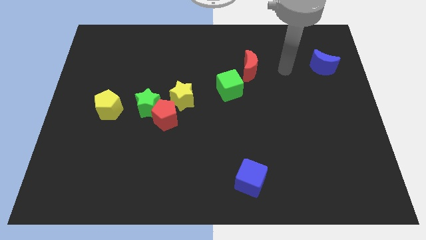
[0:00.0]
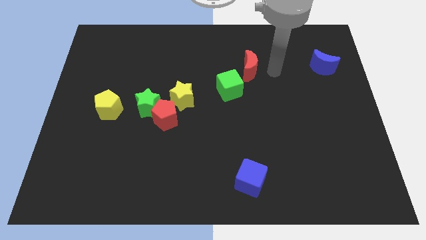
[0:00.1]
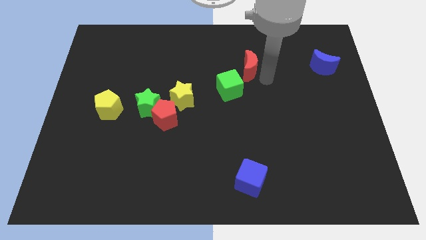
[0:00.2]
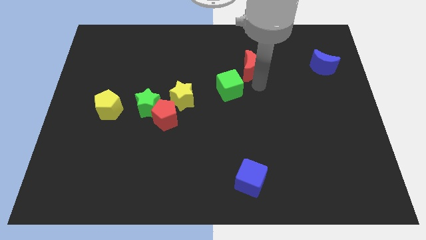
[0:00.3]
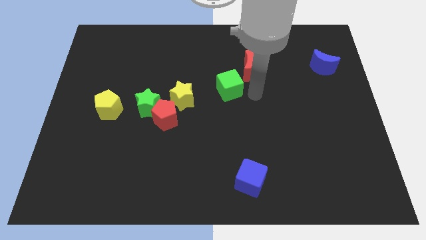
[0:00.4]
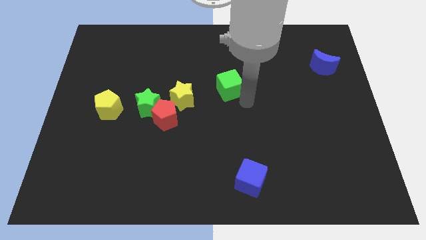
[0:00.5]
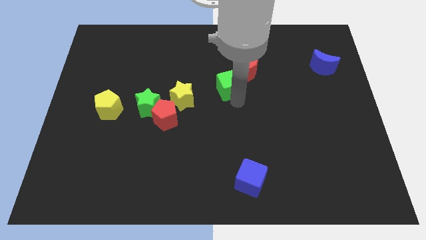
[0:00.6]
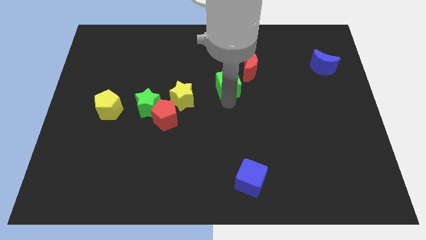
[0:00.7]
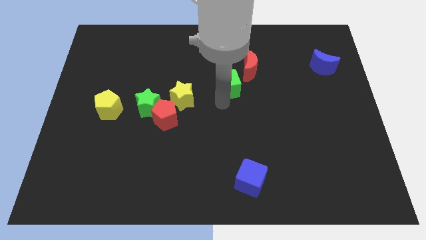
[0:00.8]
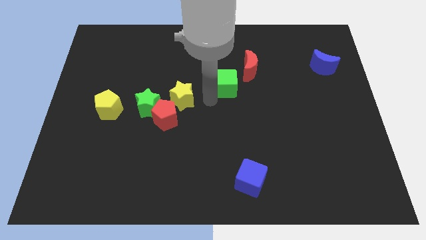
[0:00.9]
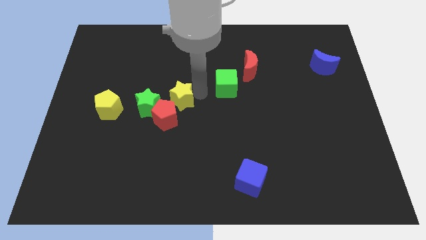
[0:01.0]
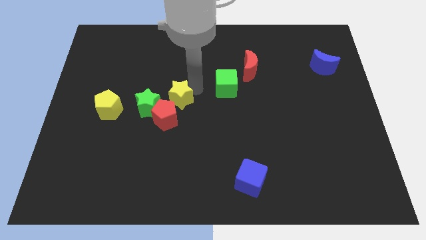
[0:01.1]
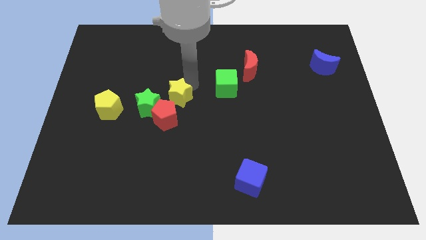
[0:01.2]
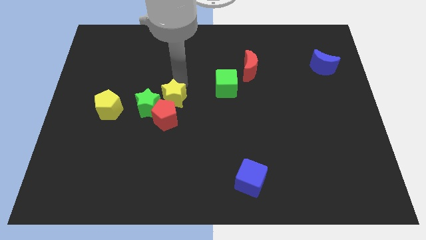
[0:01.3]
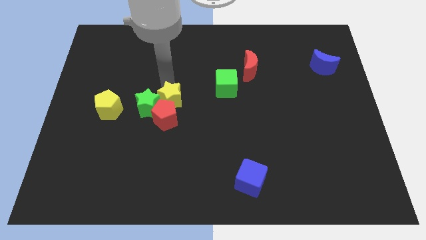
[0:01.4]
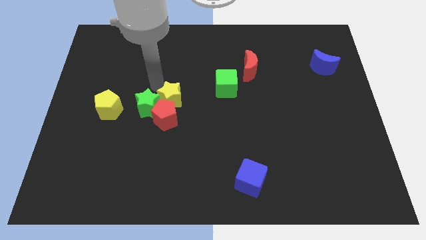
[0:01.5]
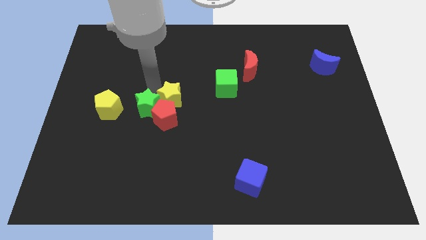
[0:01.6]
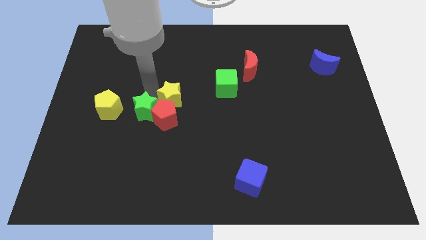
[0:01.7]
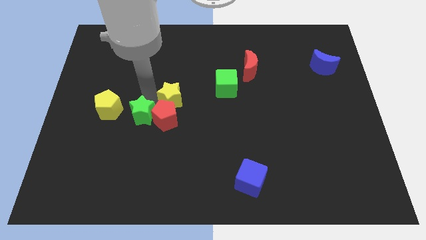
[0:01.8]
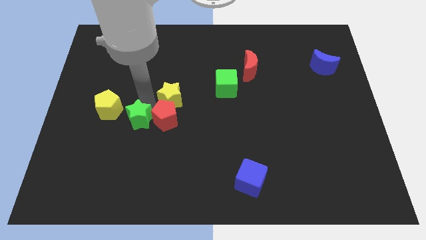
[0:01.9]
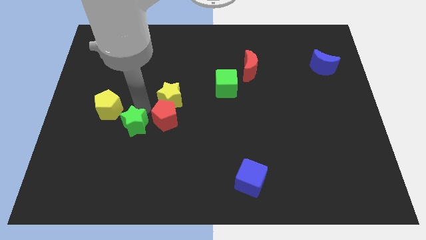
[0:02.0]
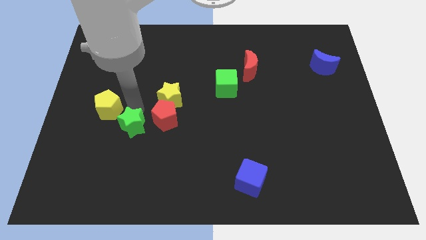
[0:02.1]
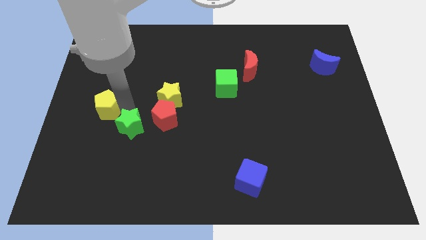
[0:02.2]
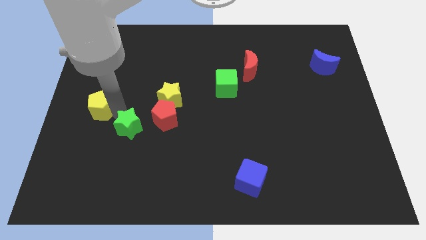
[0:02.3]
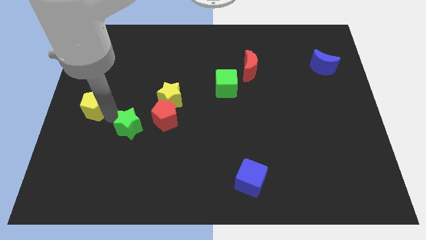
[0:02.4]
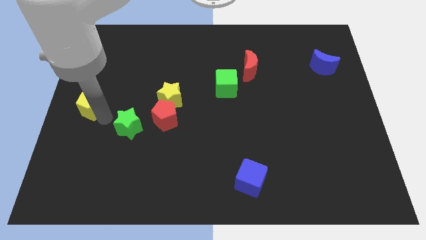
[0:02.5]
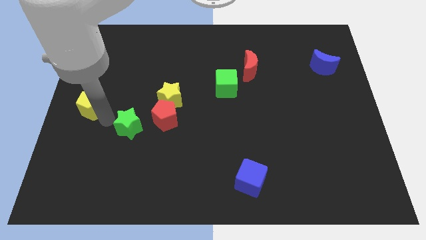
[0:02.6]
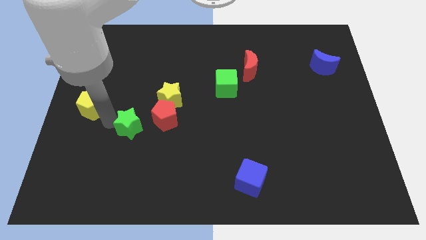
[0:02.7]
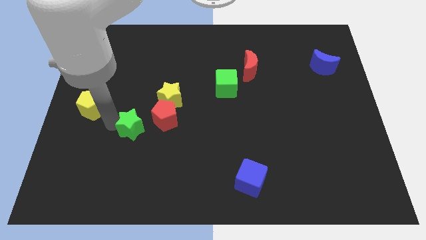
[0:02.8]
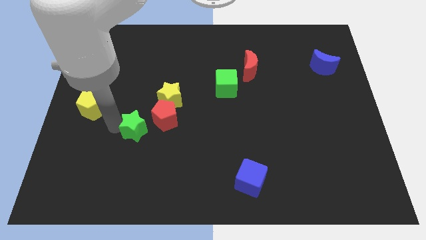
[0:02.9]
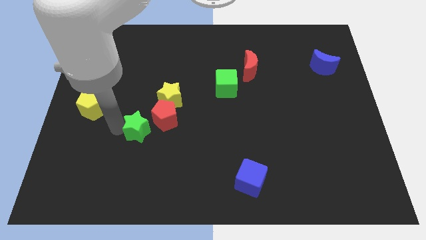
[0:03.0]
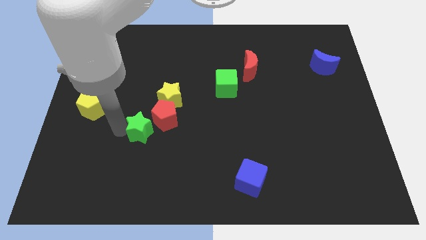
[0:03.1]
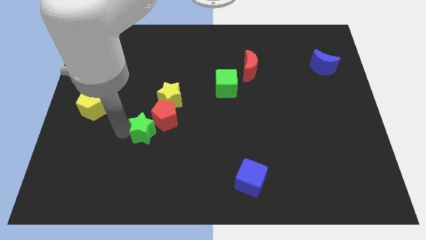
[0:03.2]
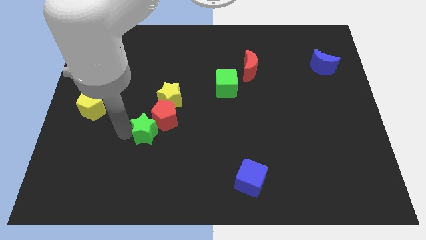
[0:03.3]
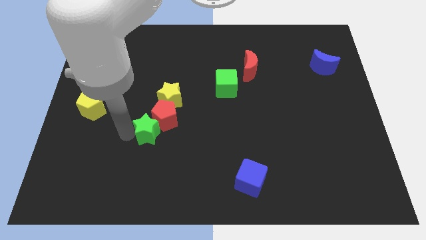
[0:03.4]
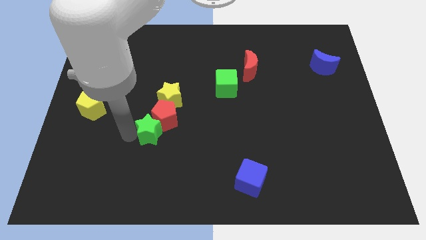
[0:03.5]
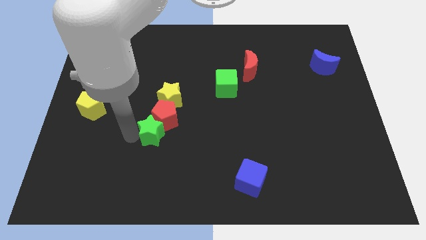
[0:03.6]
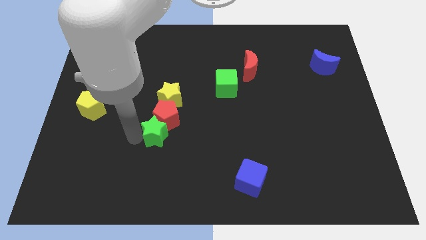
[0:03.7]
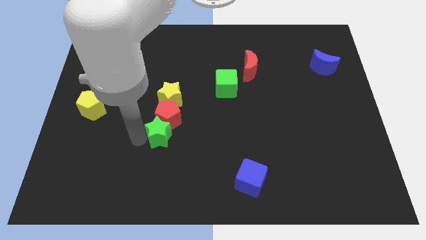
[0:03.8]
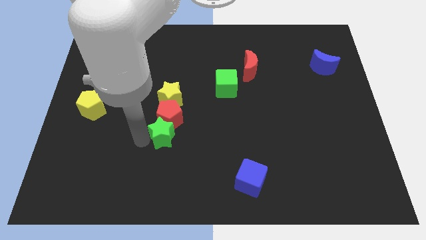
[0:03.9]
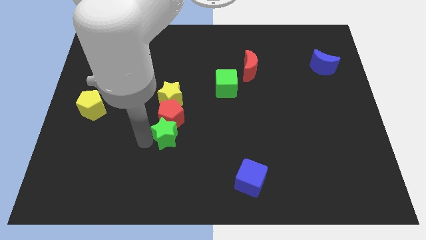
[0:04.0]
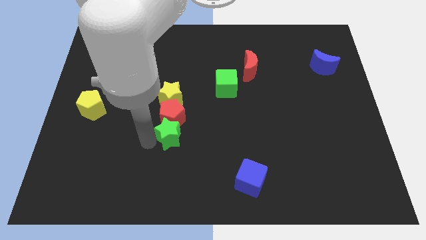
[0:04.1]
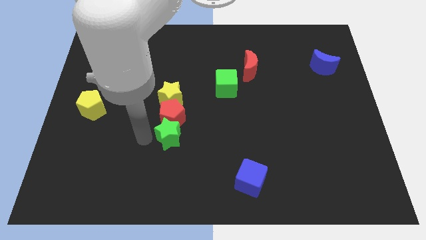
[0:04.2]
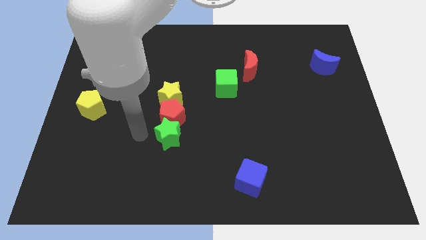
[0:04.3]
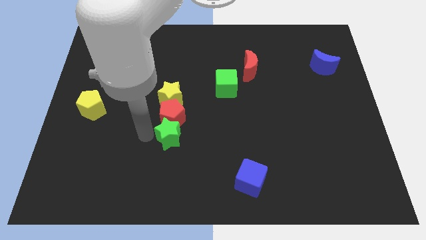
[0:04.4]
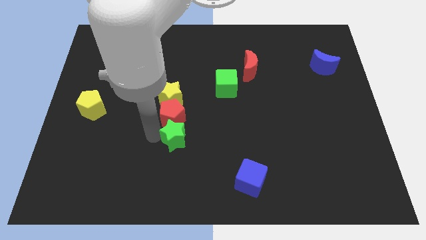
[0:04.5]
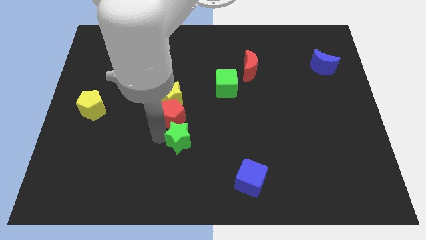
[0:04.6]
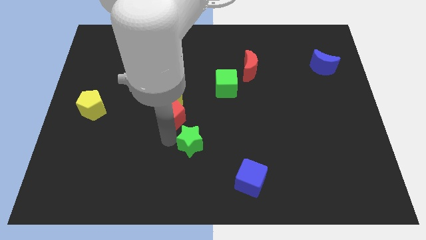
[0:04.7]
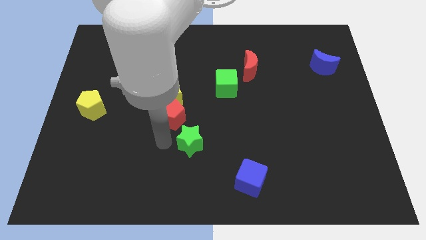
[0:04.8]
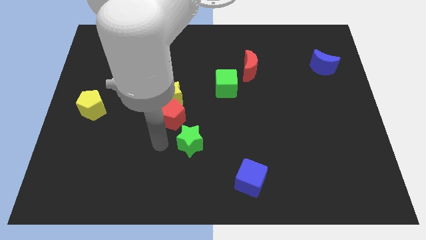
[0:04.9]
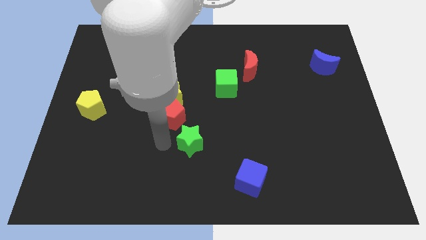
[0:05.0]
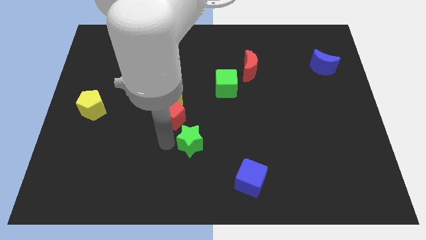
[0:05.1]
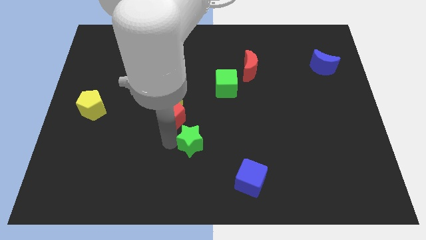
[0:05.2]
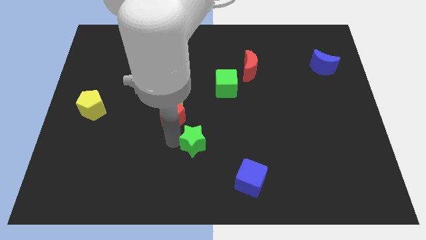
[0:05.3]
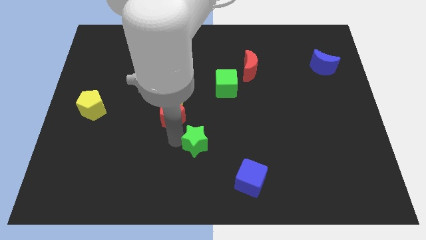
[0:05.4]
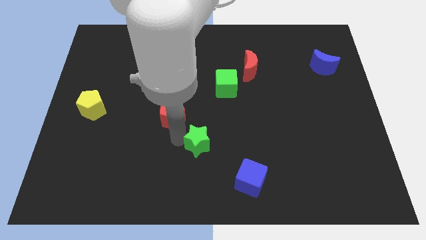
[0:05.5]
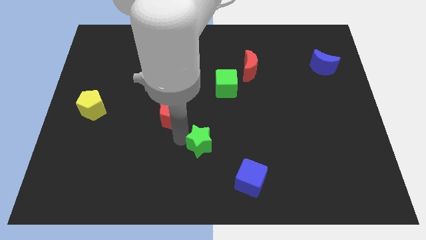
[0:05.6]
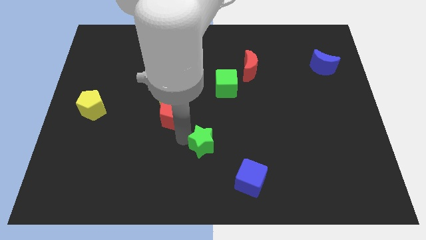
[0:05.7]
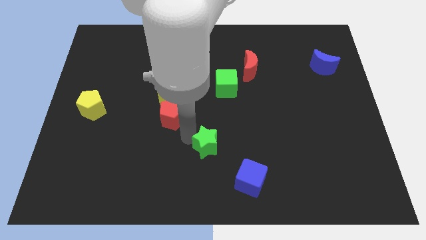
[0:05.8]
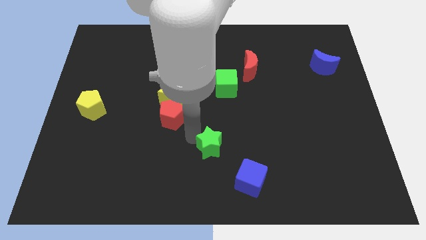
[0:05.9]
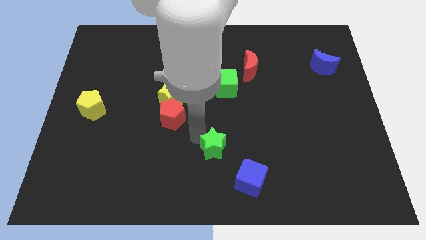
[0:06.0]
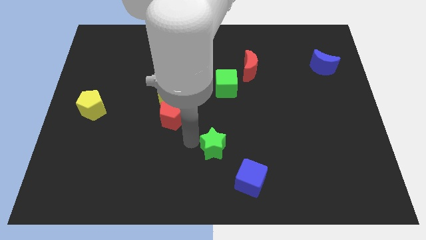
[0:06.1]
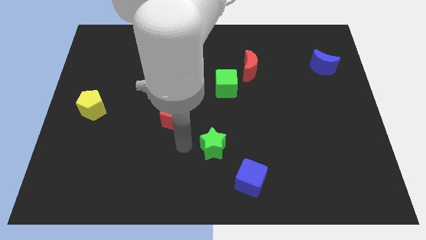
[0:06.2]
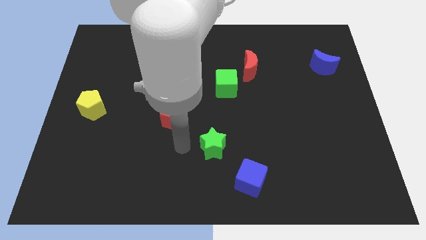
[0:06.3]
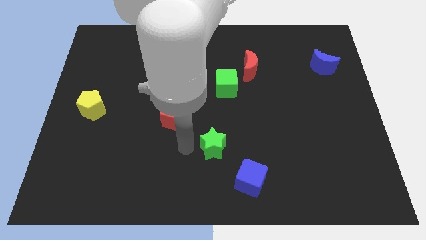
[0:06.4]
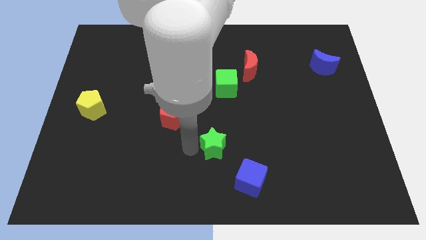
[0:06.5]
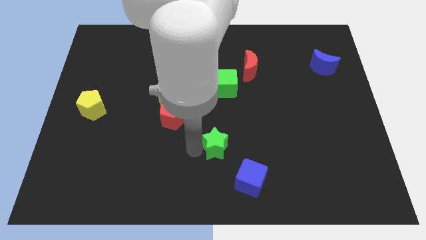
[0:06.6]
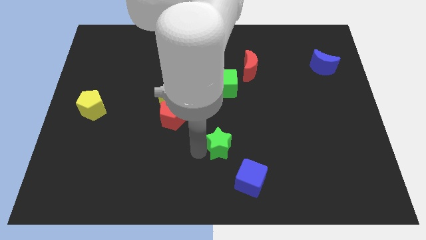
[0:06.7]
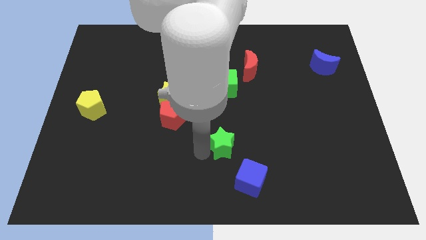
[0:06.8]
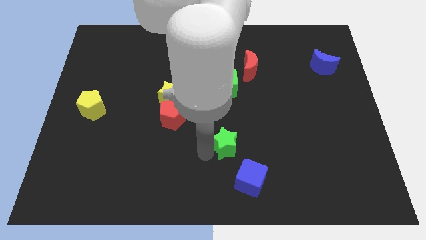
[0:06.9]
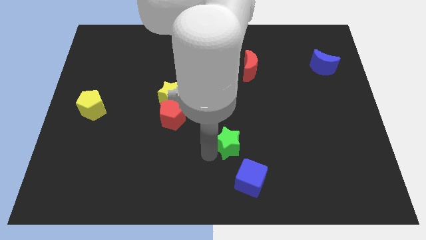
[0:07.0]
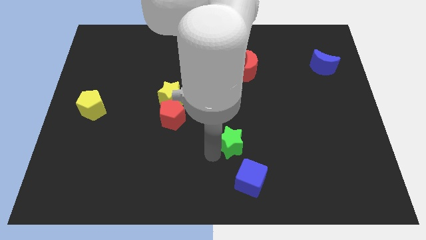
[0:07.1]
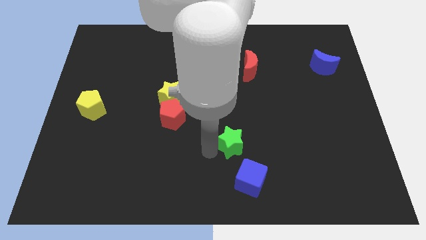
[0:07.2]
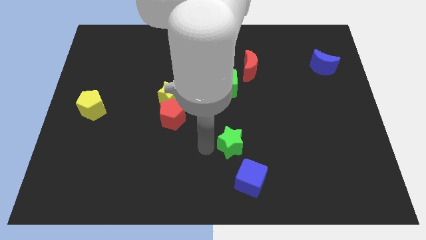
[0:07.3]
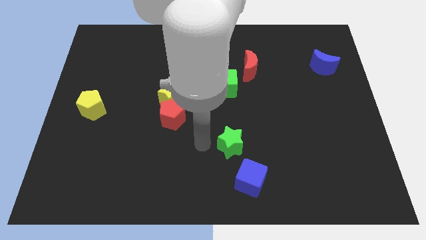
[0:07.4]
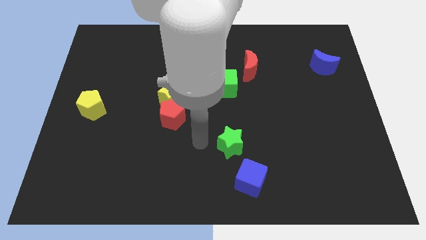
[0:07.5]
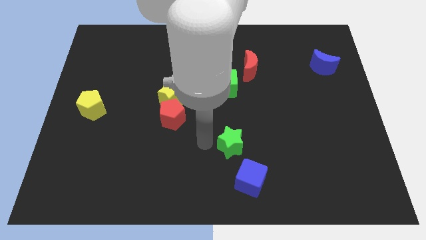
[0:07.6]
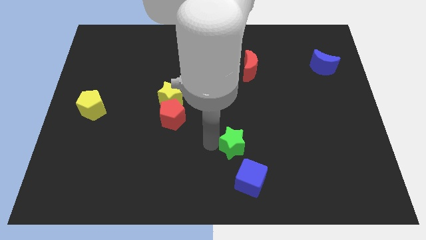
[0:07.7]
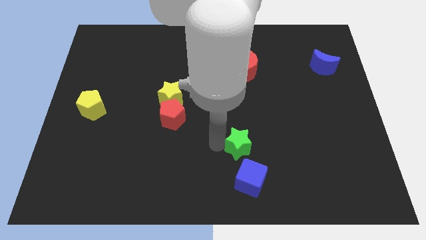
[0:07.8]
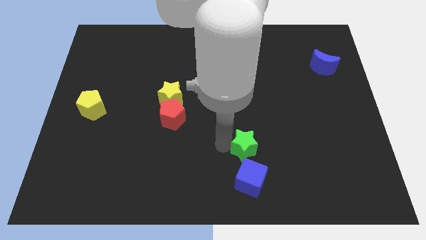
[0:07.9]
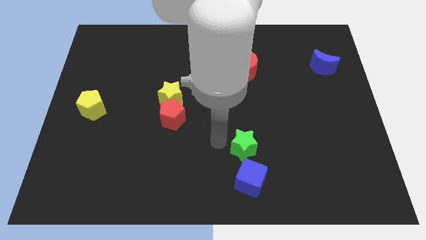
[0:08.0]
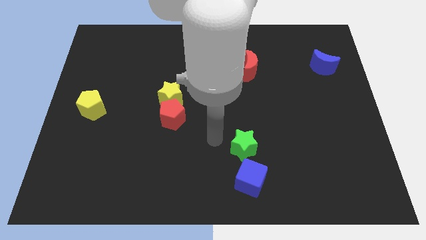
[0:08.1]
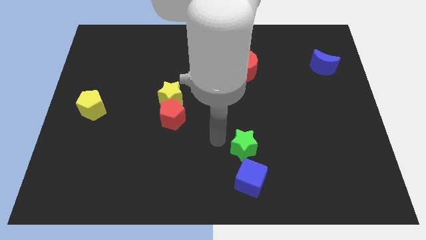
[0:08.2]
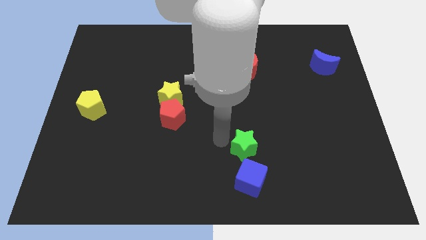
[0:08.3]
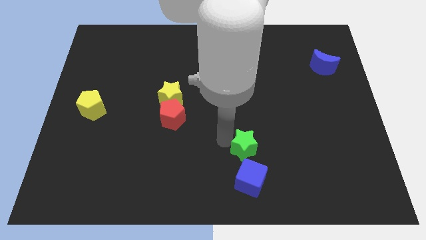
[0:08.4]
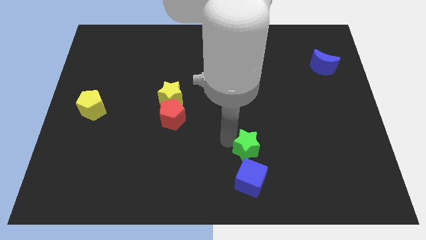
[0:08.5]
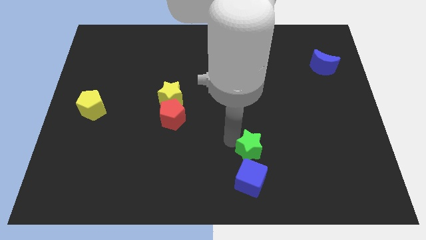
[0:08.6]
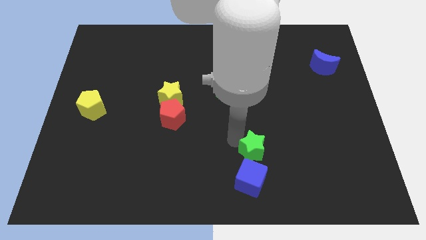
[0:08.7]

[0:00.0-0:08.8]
put the green star diagonally up and to the right of the blue cube
